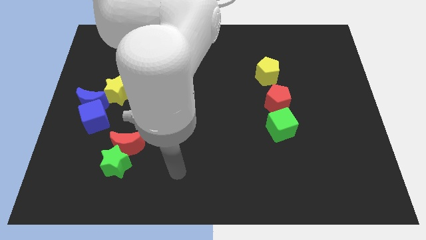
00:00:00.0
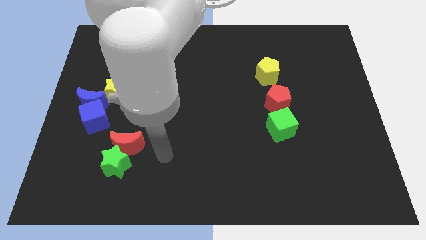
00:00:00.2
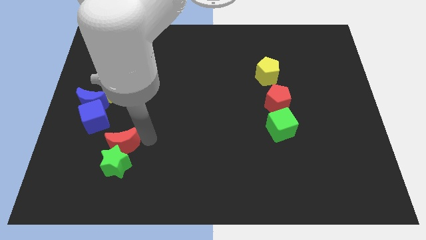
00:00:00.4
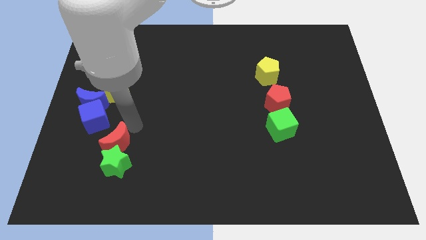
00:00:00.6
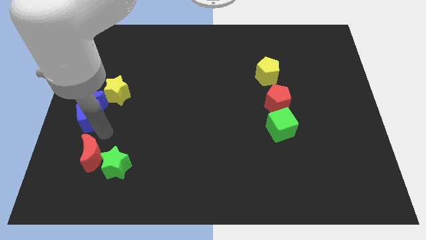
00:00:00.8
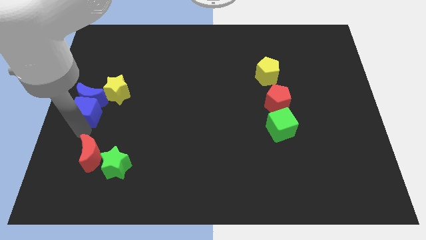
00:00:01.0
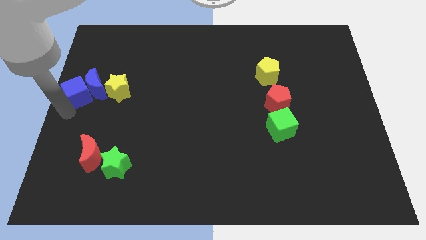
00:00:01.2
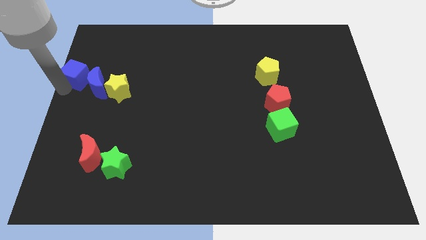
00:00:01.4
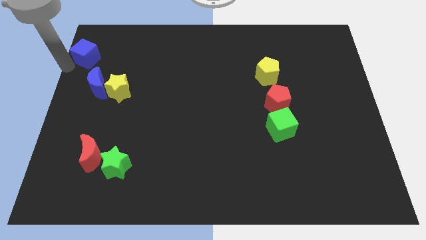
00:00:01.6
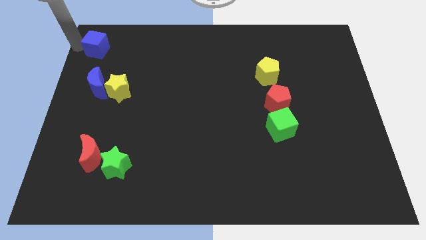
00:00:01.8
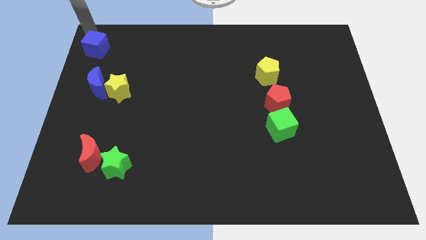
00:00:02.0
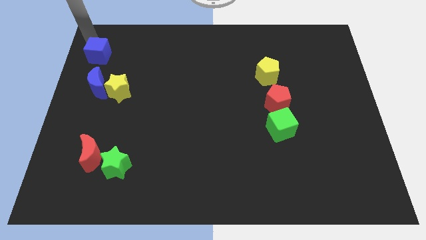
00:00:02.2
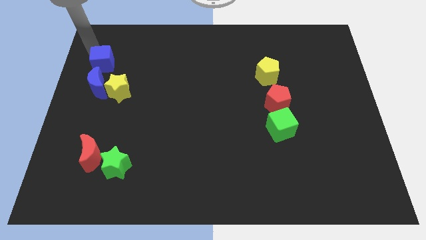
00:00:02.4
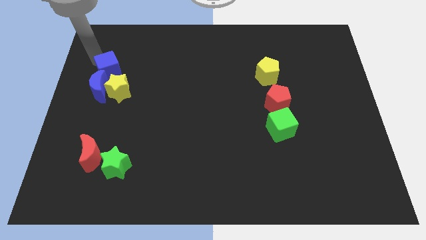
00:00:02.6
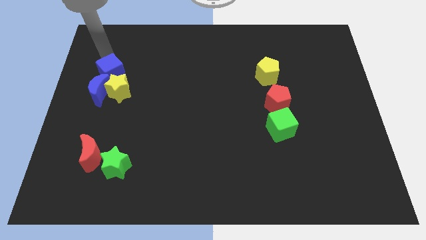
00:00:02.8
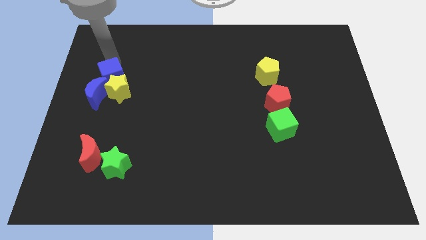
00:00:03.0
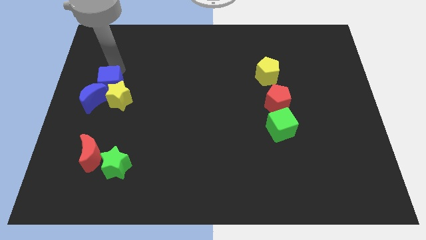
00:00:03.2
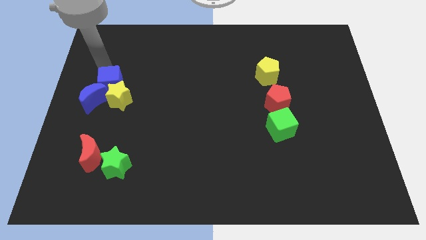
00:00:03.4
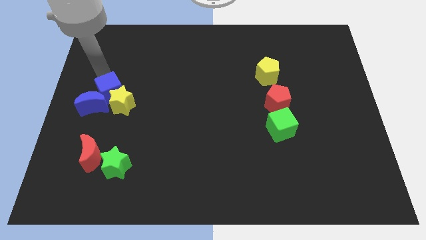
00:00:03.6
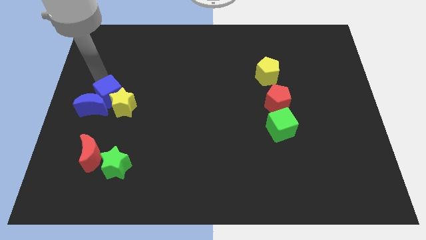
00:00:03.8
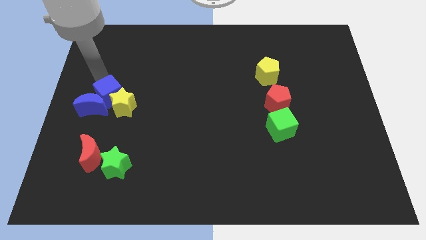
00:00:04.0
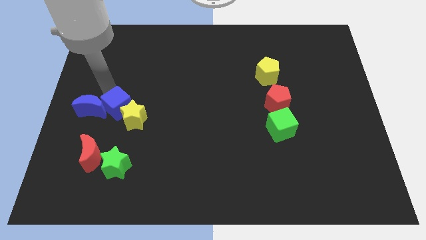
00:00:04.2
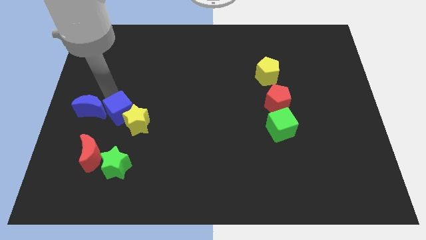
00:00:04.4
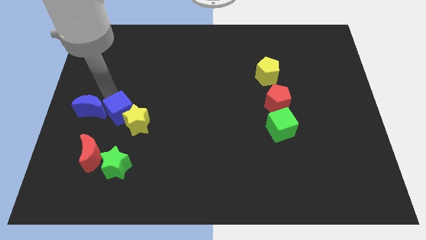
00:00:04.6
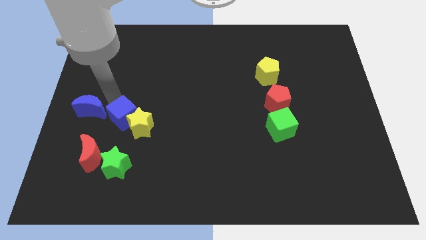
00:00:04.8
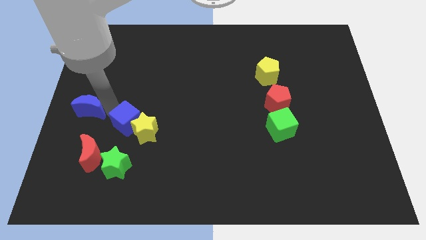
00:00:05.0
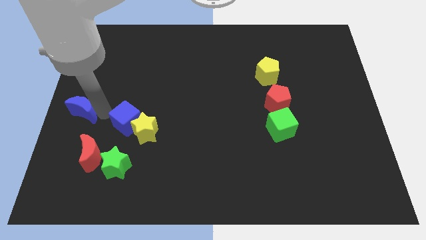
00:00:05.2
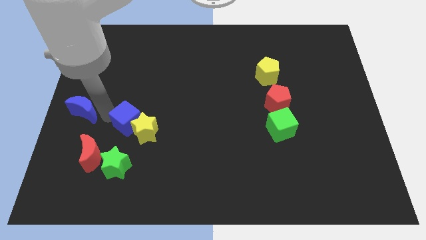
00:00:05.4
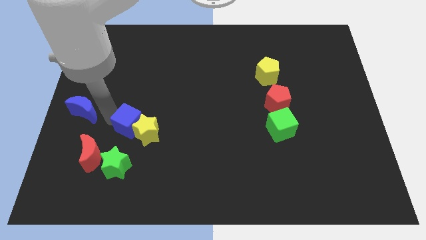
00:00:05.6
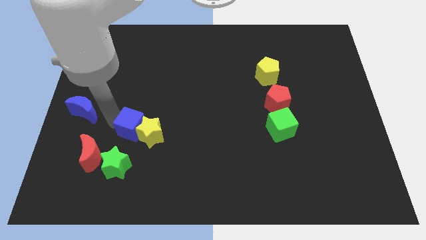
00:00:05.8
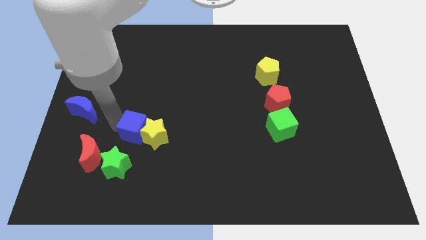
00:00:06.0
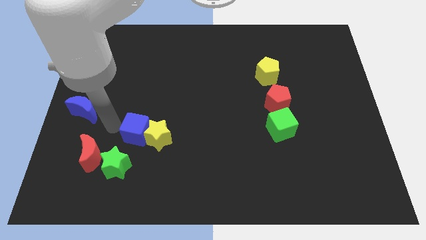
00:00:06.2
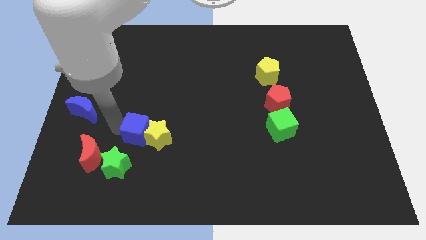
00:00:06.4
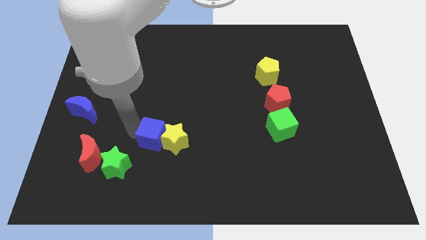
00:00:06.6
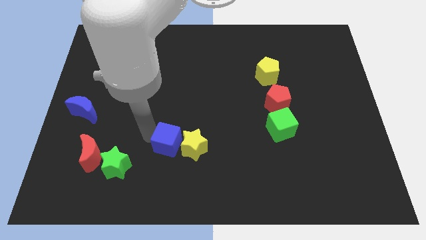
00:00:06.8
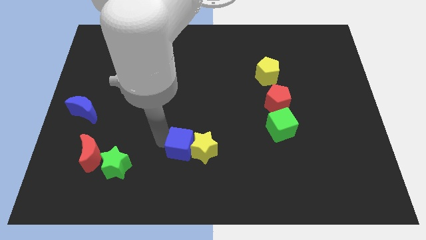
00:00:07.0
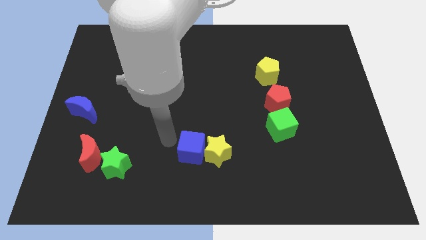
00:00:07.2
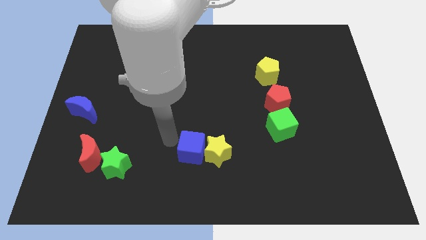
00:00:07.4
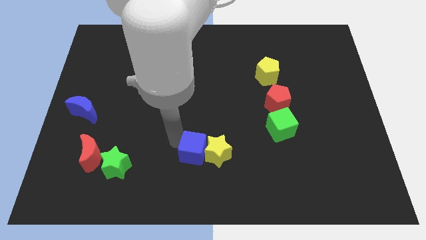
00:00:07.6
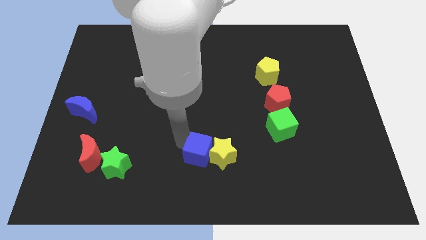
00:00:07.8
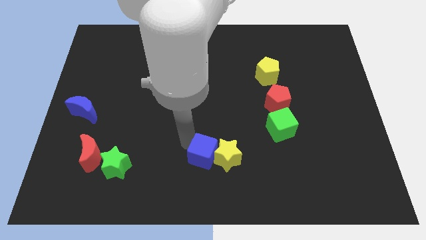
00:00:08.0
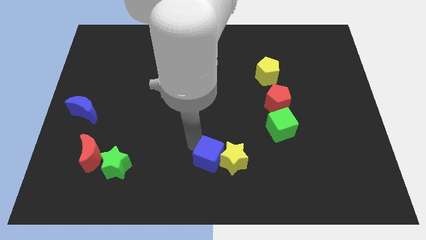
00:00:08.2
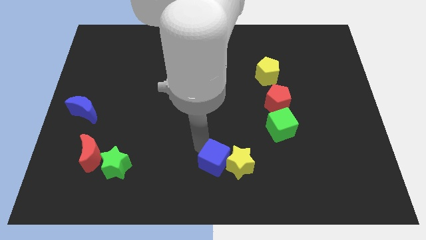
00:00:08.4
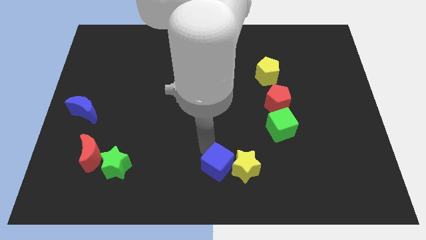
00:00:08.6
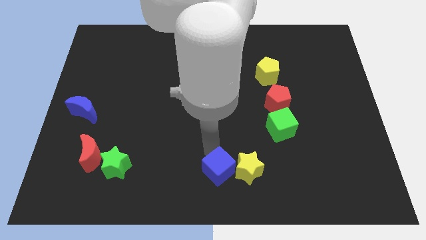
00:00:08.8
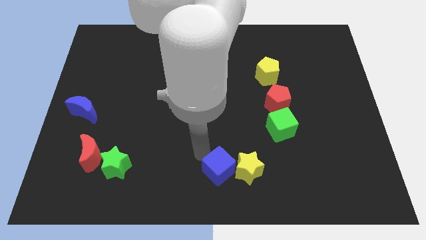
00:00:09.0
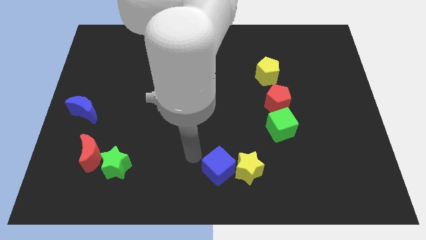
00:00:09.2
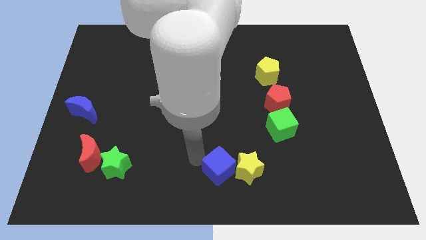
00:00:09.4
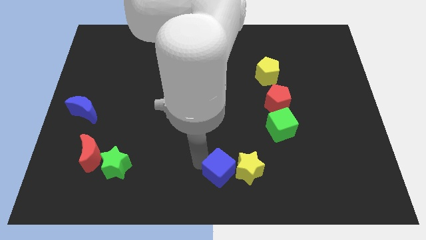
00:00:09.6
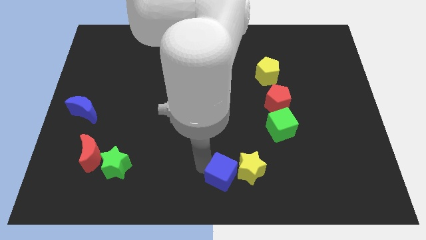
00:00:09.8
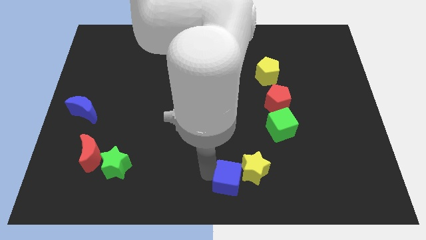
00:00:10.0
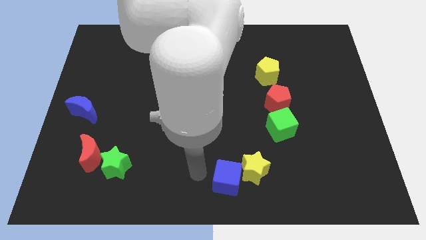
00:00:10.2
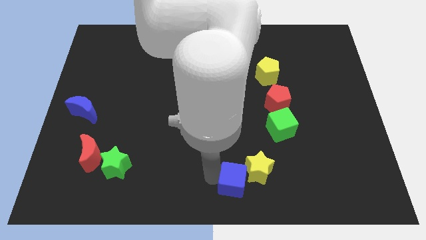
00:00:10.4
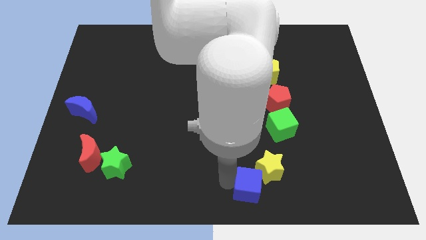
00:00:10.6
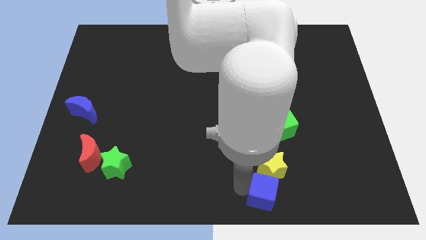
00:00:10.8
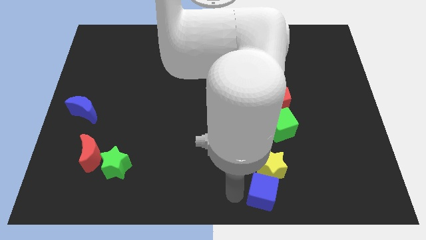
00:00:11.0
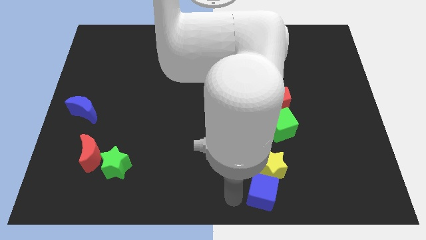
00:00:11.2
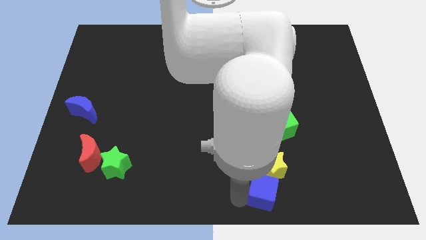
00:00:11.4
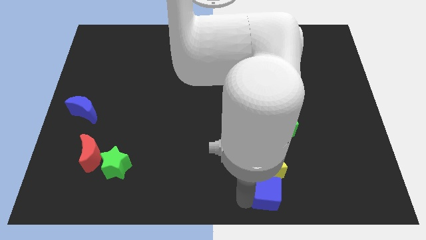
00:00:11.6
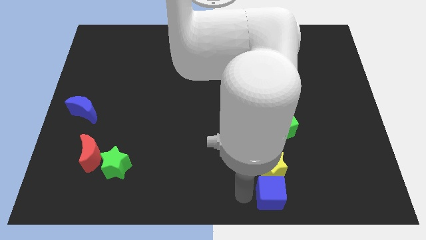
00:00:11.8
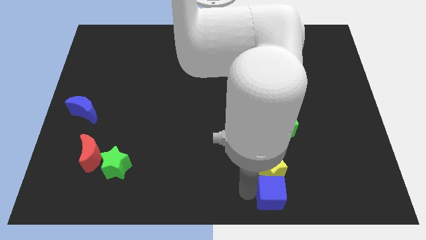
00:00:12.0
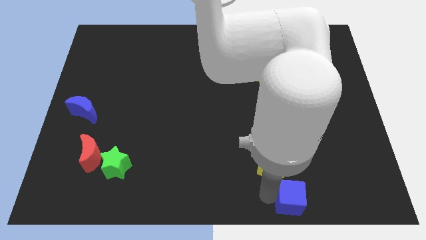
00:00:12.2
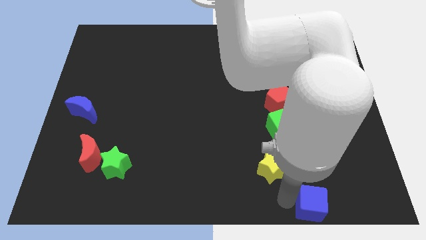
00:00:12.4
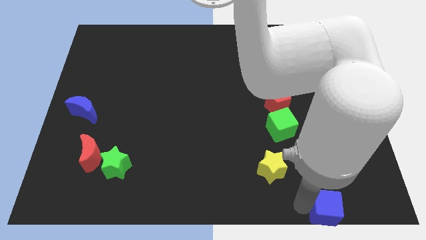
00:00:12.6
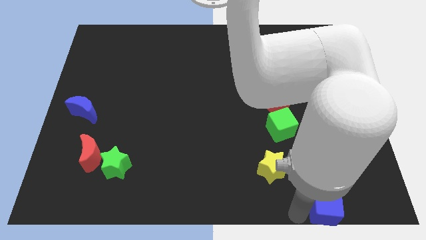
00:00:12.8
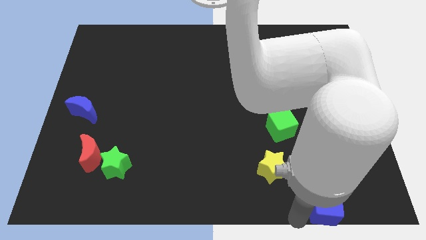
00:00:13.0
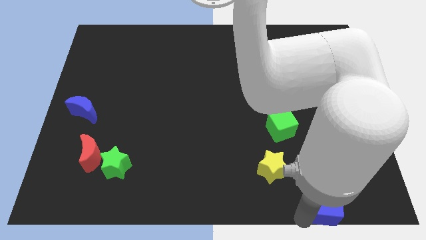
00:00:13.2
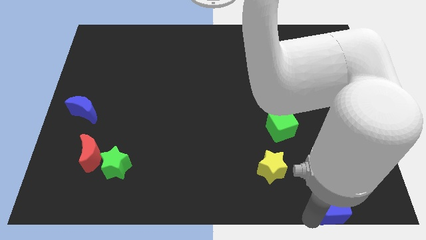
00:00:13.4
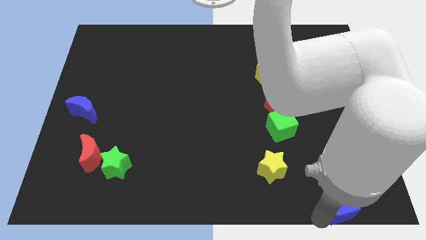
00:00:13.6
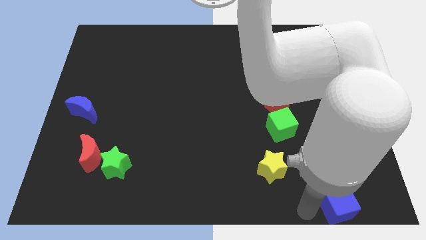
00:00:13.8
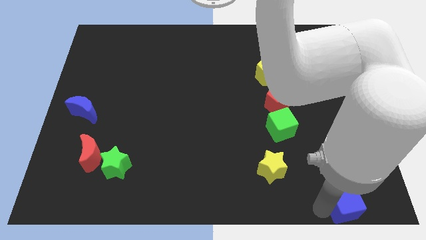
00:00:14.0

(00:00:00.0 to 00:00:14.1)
move the blue cube to the bottom right corner
